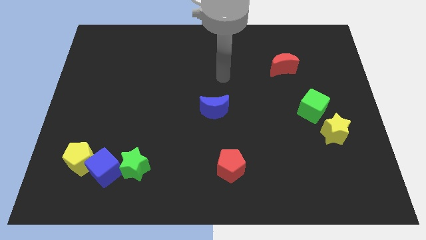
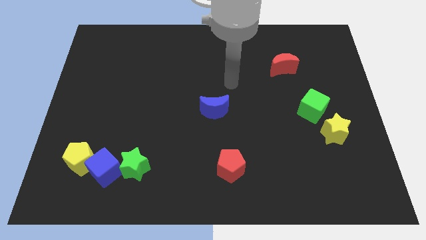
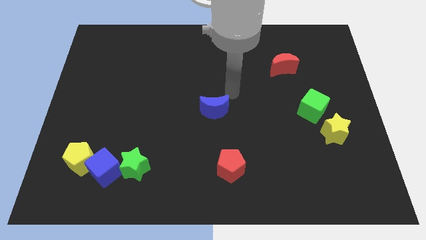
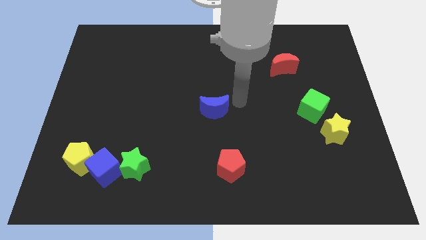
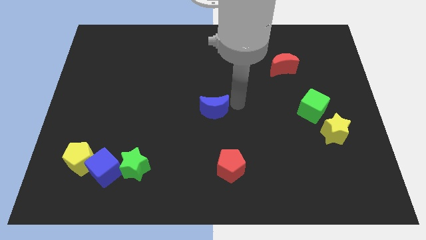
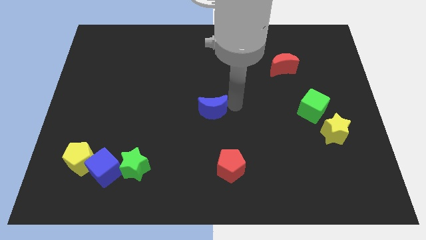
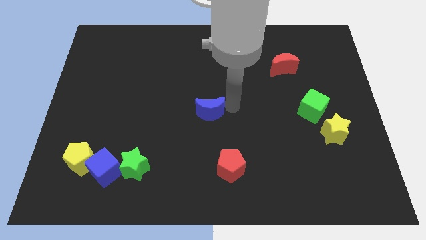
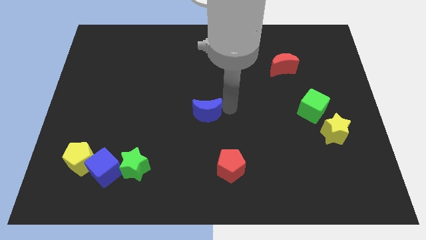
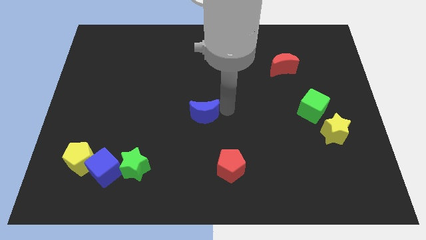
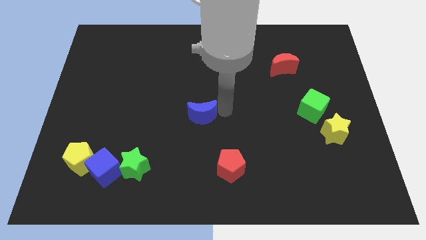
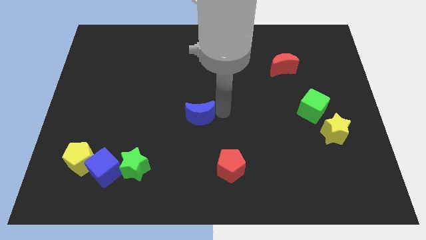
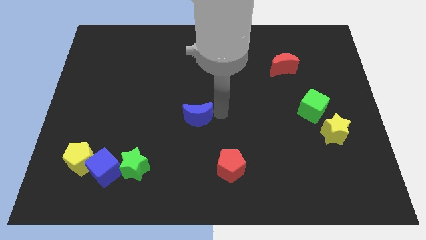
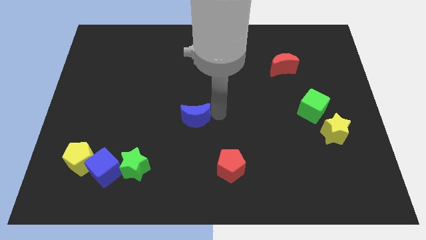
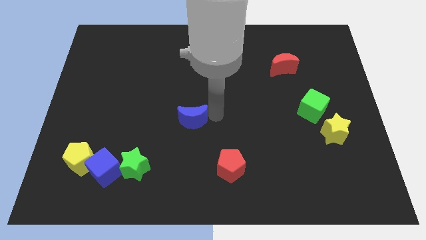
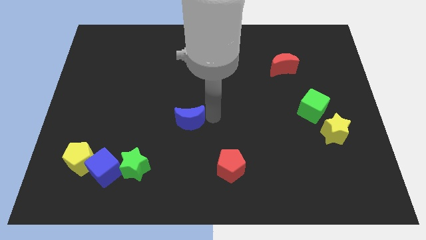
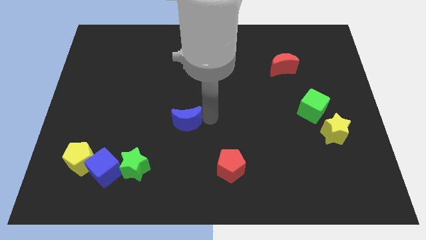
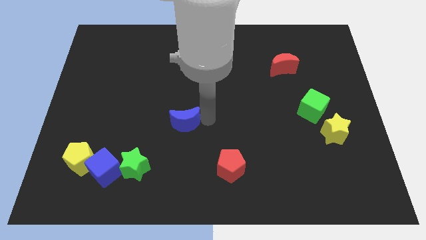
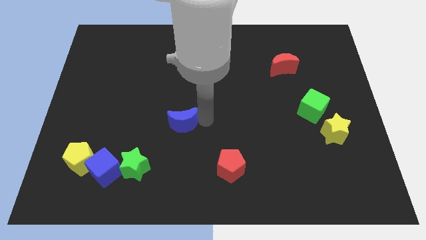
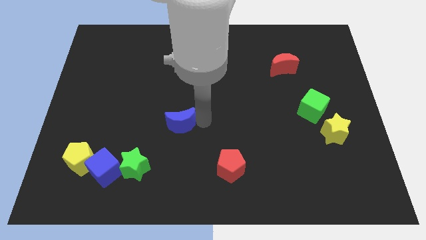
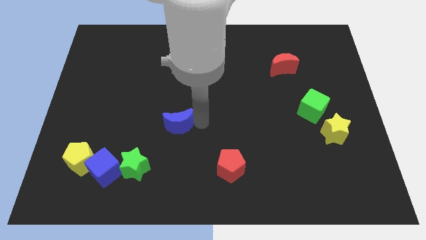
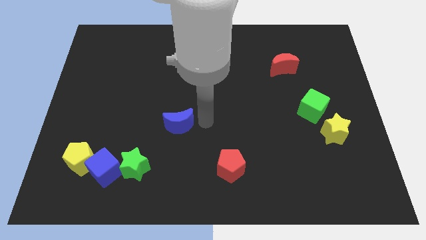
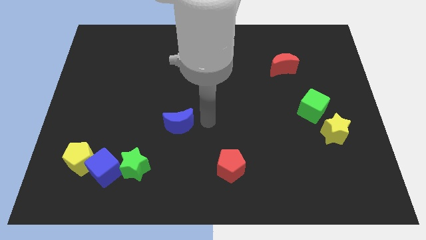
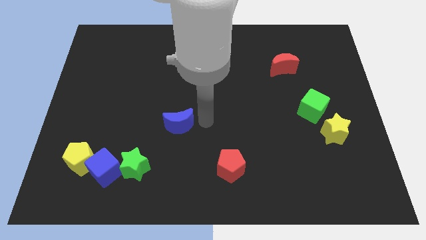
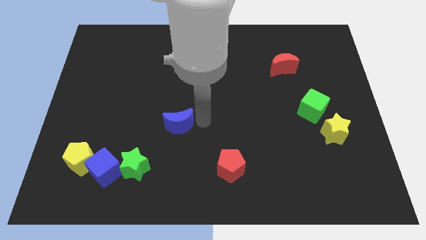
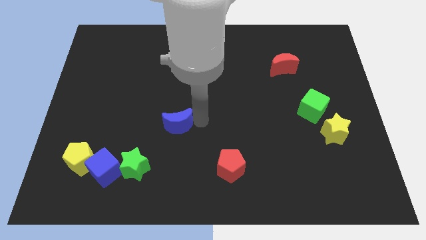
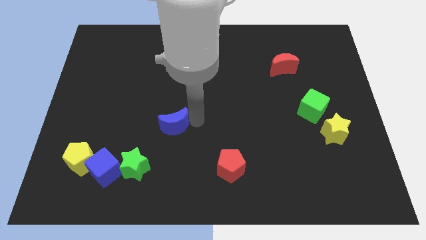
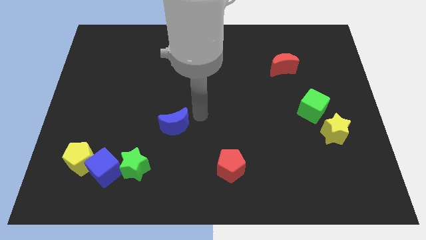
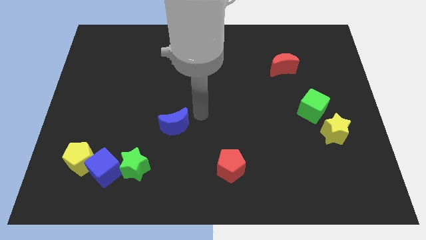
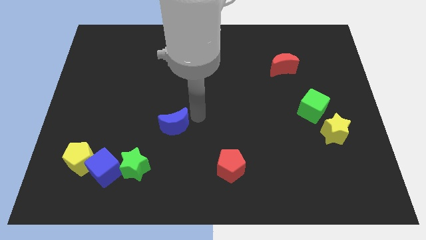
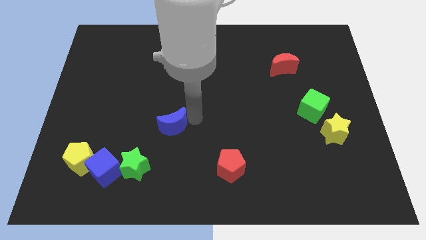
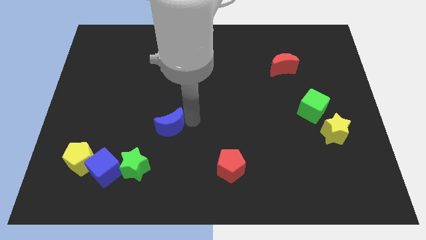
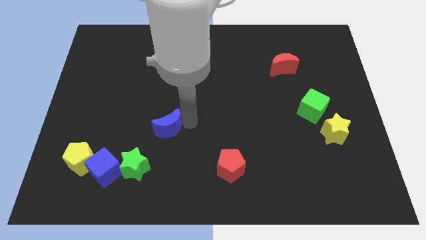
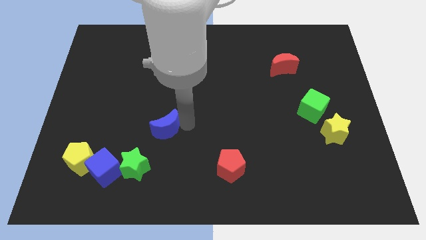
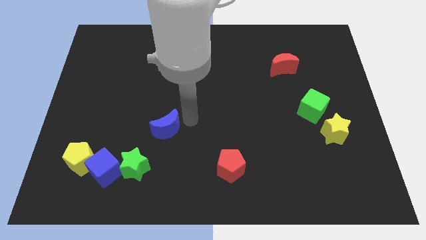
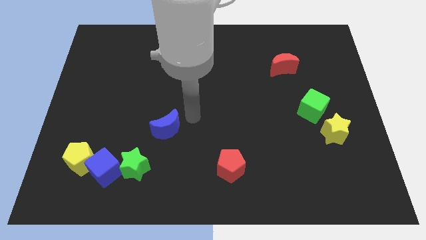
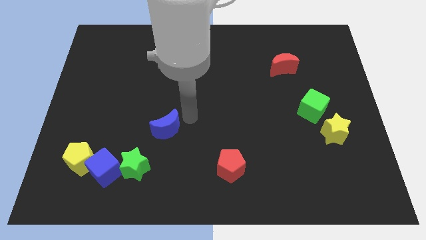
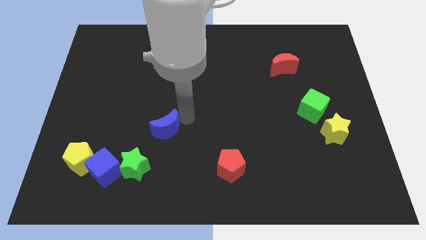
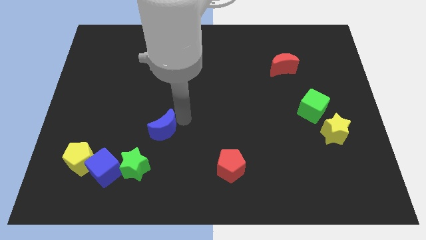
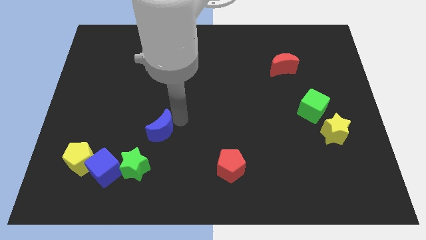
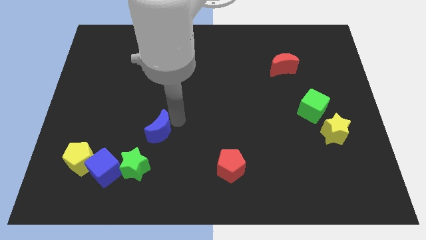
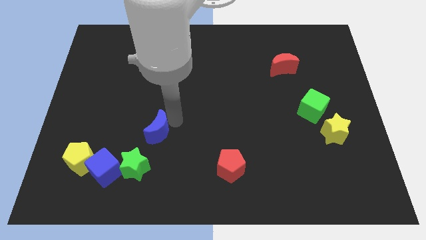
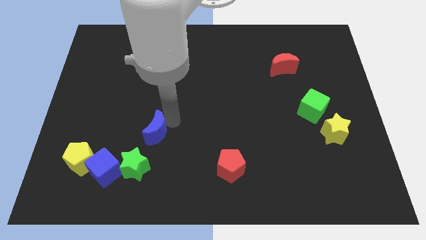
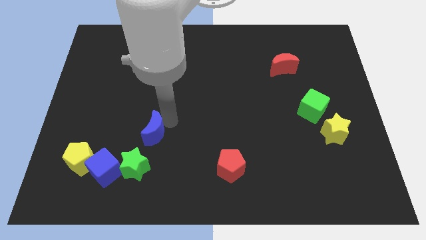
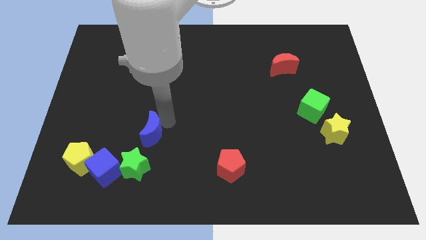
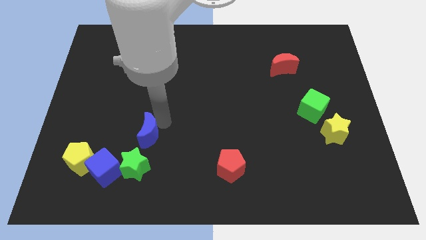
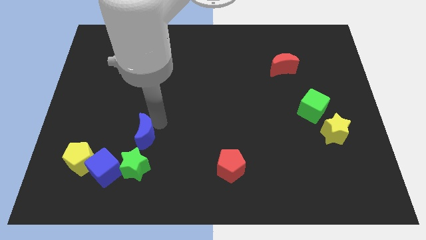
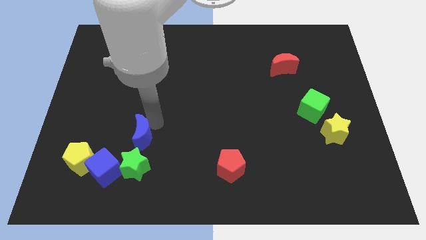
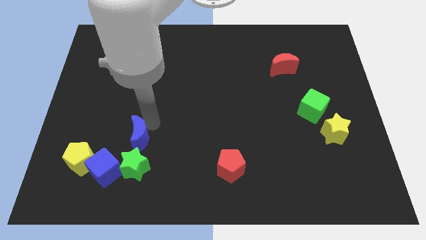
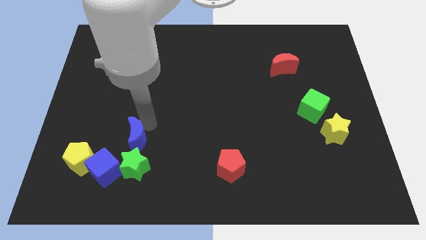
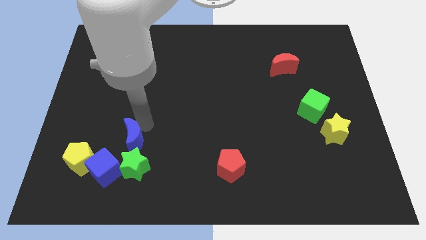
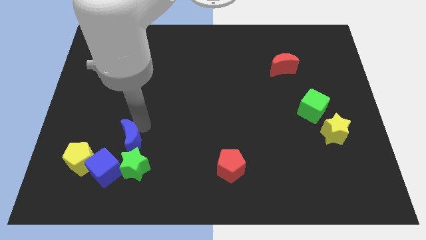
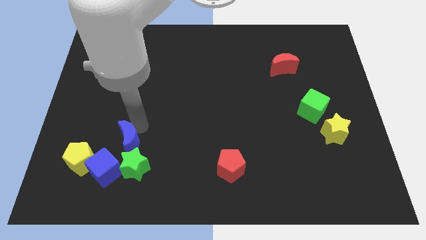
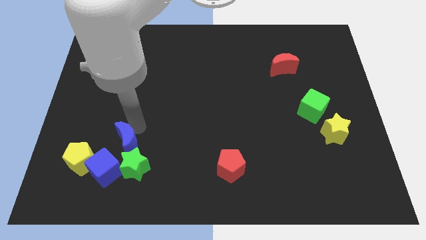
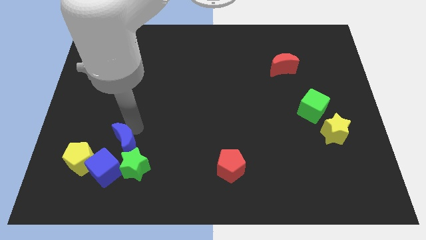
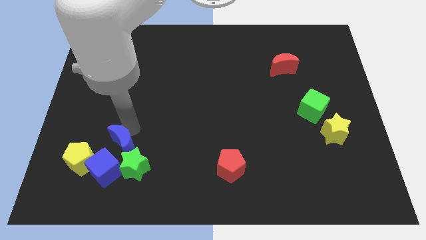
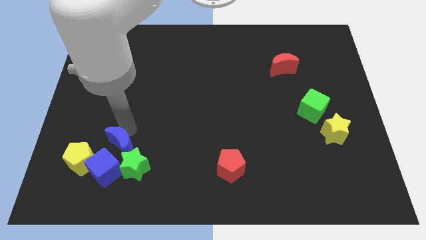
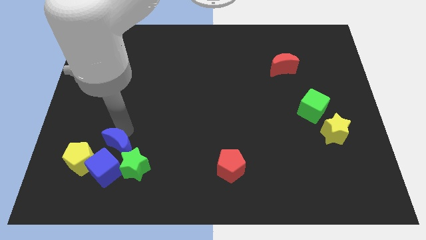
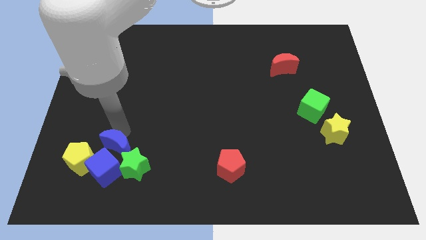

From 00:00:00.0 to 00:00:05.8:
push the blue moon to the blue cube
